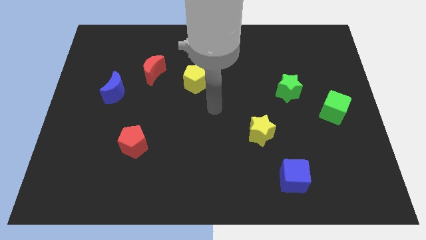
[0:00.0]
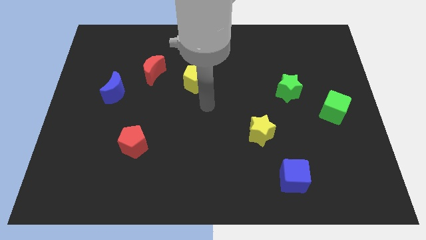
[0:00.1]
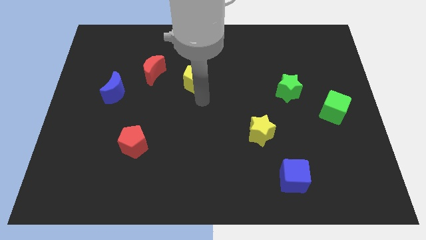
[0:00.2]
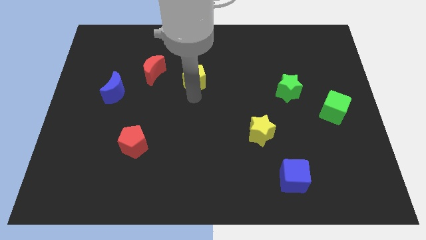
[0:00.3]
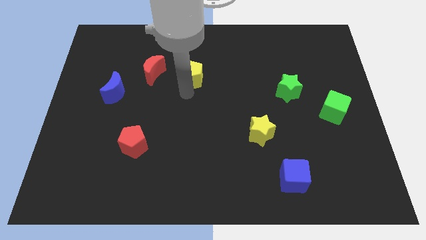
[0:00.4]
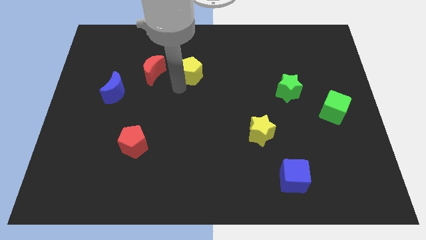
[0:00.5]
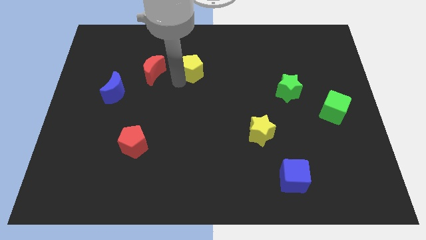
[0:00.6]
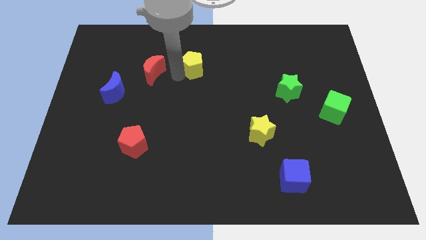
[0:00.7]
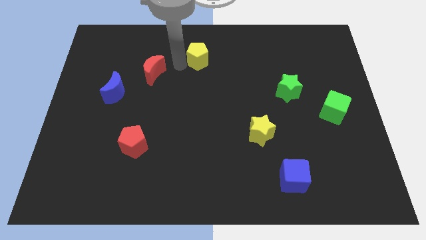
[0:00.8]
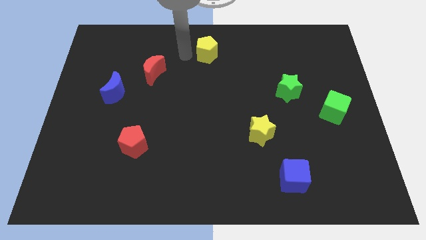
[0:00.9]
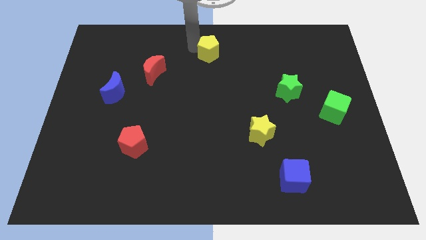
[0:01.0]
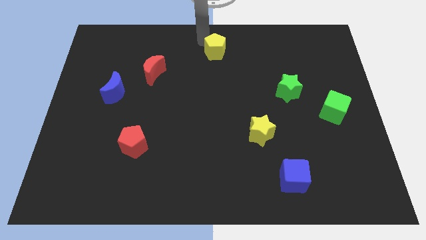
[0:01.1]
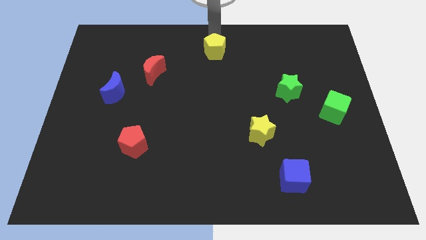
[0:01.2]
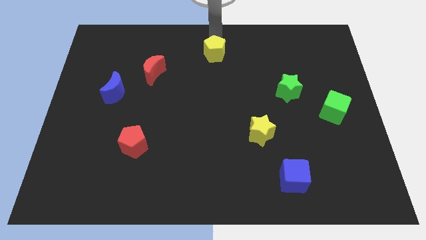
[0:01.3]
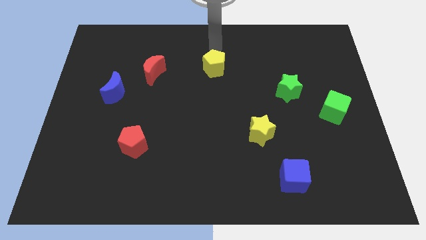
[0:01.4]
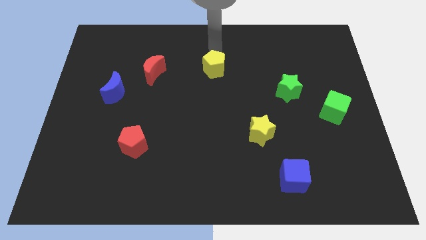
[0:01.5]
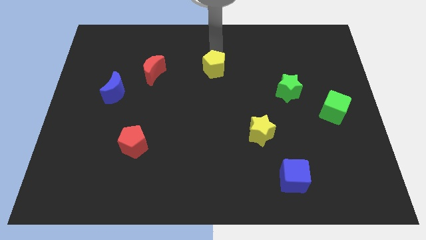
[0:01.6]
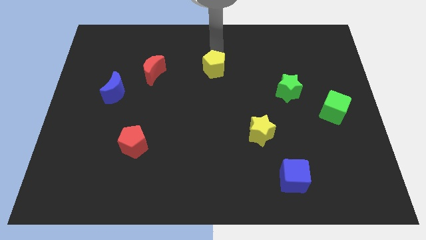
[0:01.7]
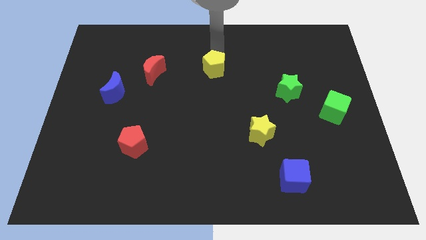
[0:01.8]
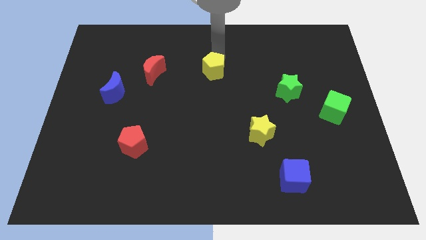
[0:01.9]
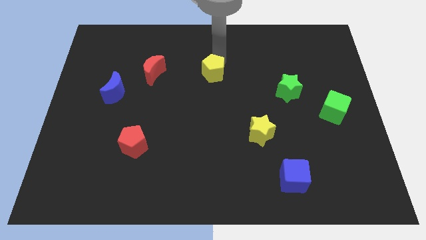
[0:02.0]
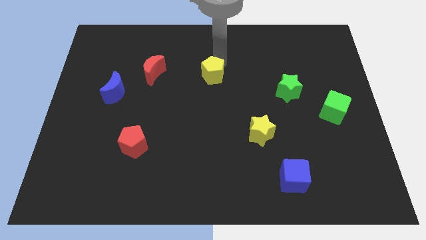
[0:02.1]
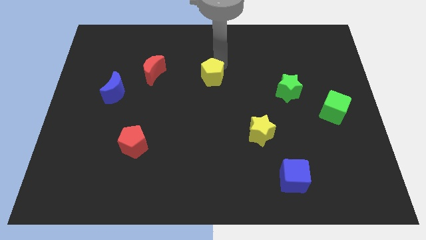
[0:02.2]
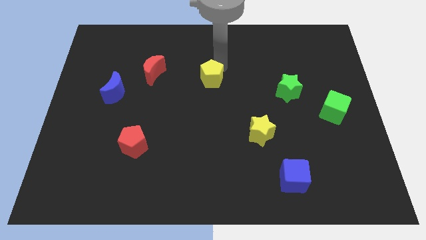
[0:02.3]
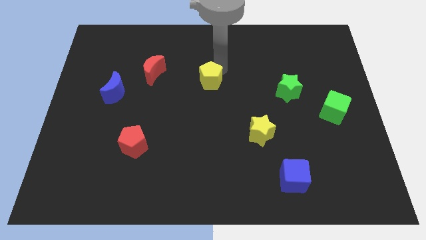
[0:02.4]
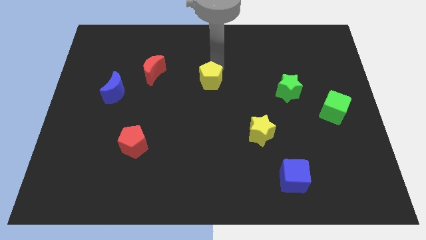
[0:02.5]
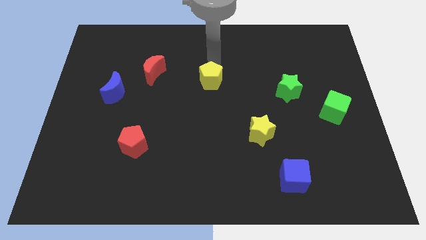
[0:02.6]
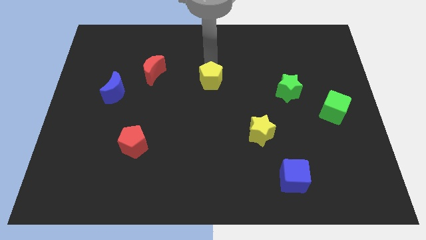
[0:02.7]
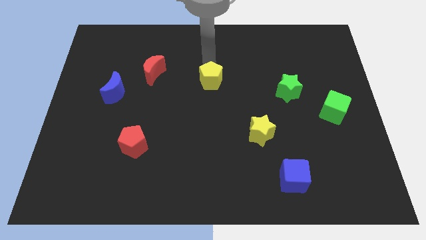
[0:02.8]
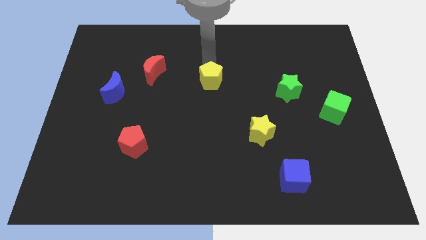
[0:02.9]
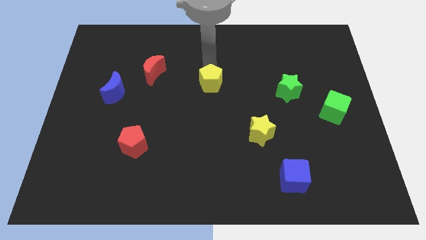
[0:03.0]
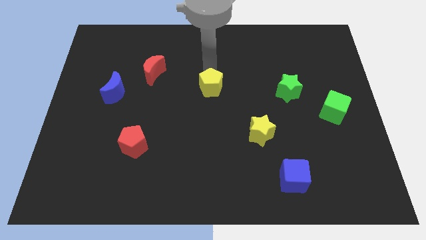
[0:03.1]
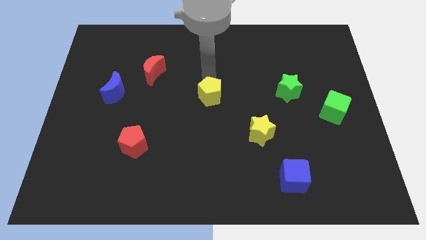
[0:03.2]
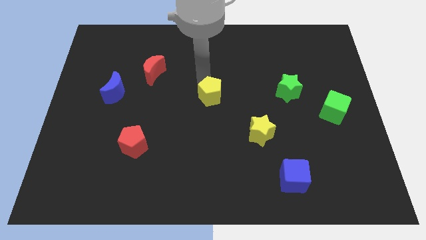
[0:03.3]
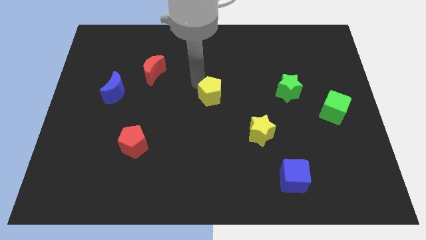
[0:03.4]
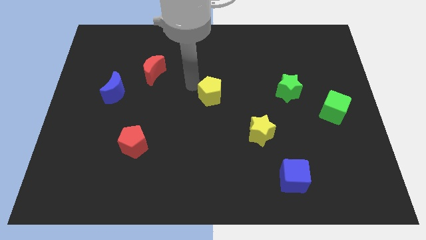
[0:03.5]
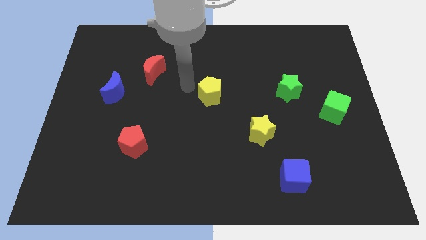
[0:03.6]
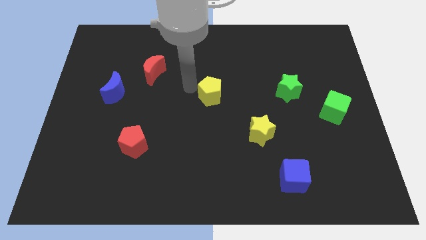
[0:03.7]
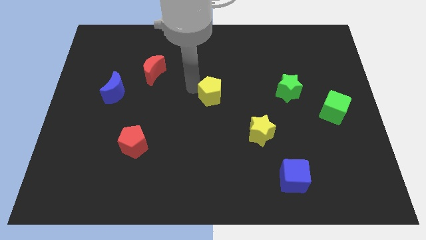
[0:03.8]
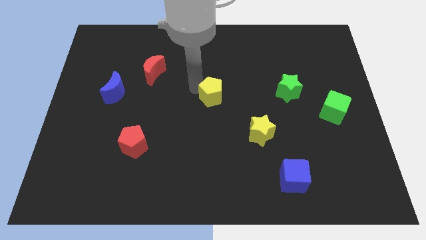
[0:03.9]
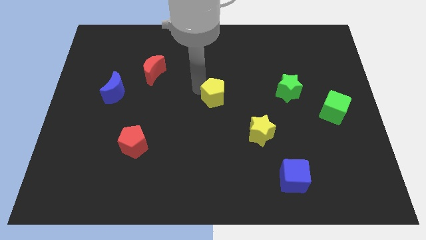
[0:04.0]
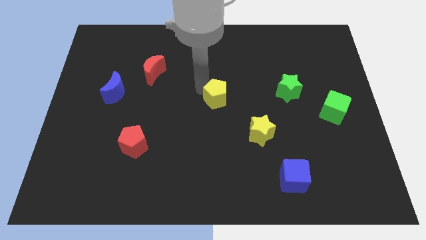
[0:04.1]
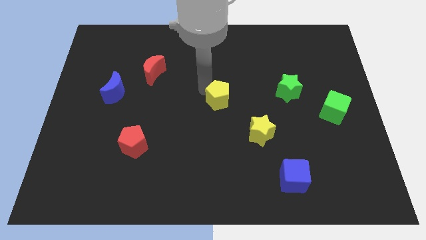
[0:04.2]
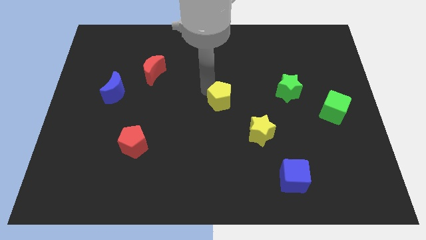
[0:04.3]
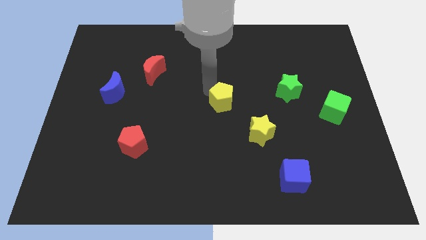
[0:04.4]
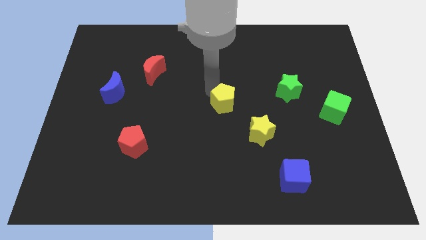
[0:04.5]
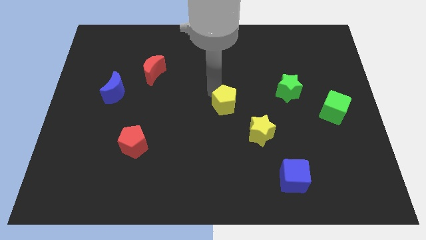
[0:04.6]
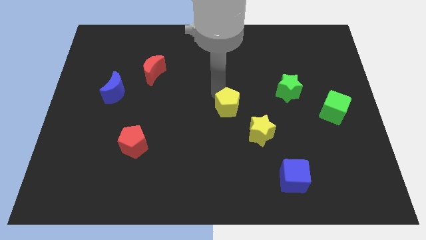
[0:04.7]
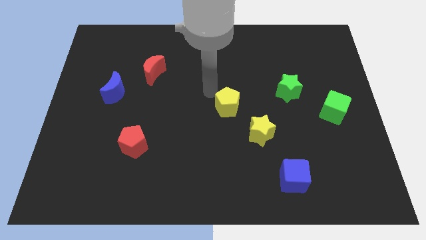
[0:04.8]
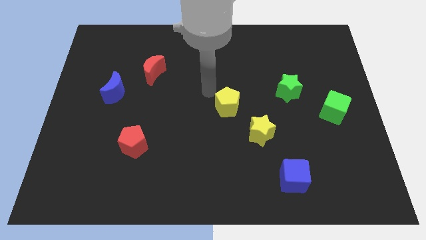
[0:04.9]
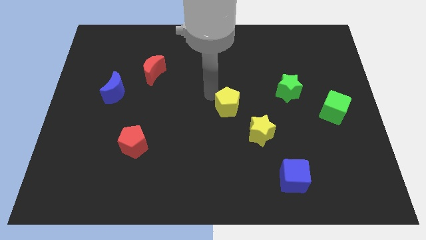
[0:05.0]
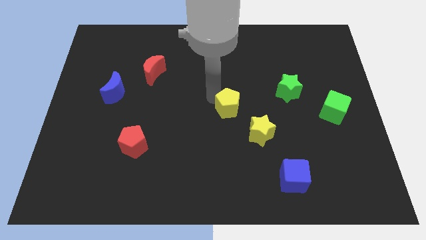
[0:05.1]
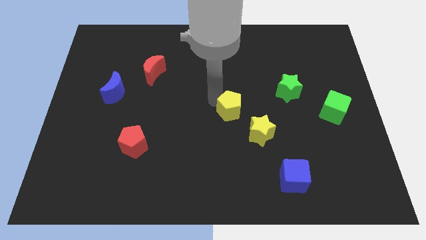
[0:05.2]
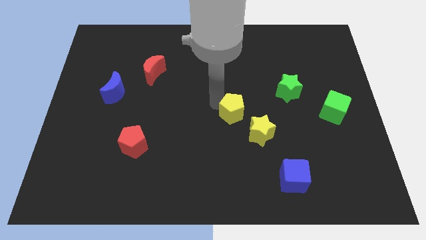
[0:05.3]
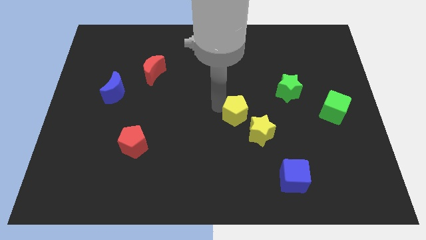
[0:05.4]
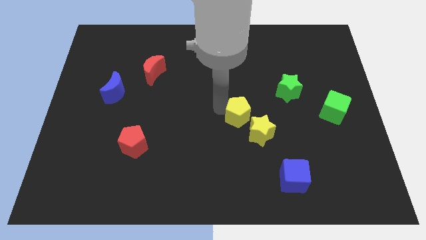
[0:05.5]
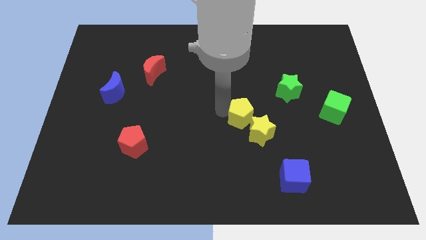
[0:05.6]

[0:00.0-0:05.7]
put the yellow pentagon next to the yellow star

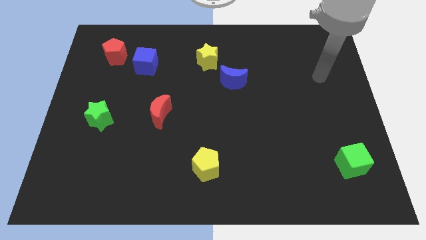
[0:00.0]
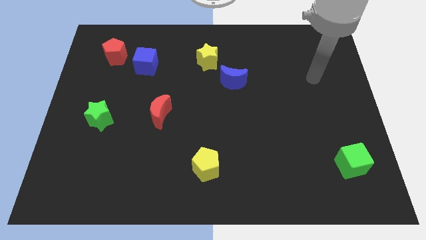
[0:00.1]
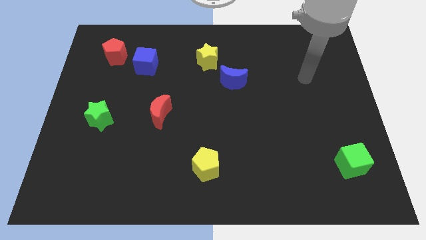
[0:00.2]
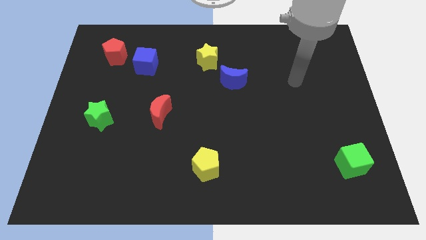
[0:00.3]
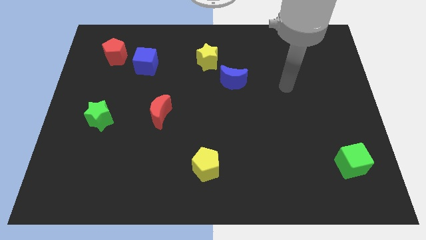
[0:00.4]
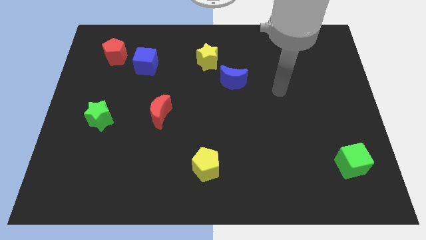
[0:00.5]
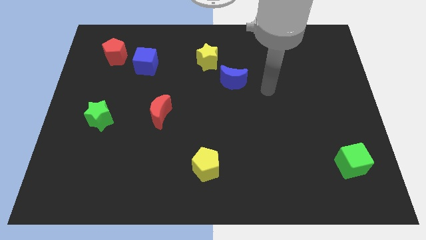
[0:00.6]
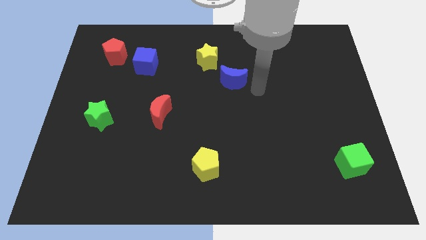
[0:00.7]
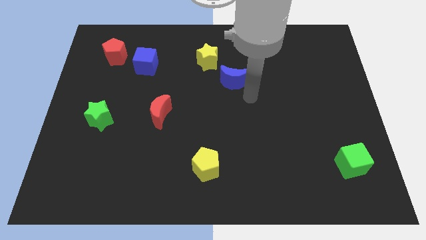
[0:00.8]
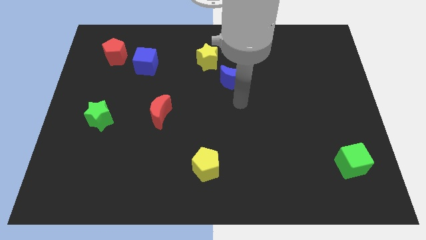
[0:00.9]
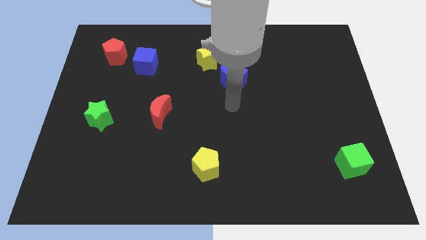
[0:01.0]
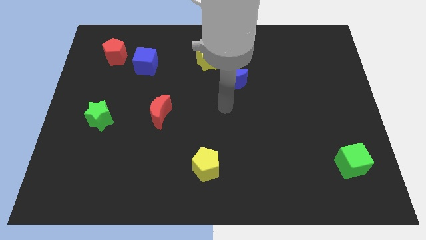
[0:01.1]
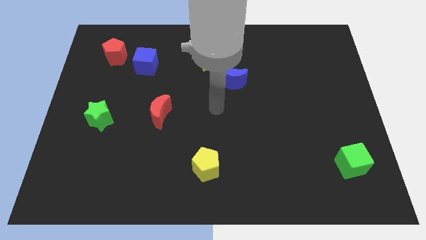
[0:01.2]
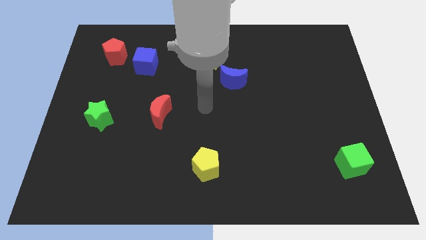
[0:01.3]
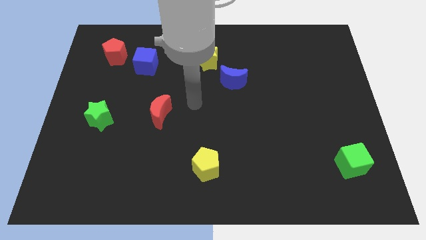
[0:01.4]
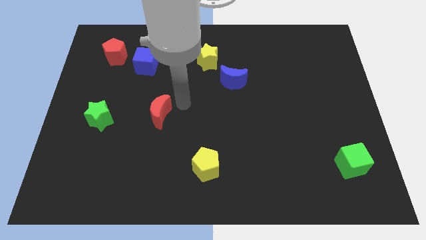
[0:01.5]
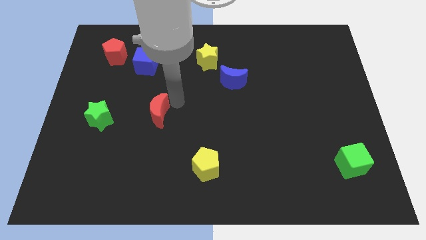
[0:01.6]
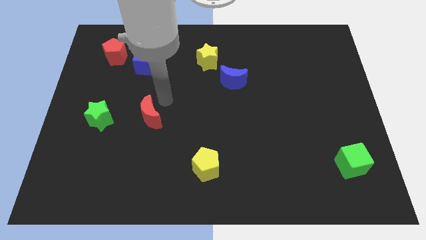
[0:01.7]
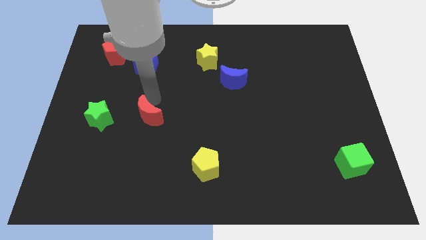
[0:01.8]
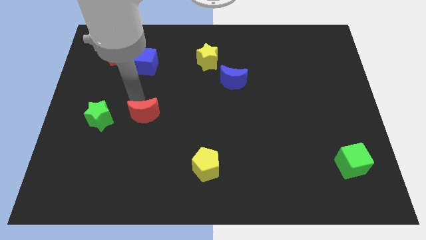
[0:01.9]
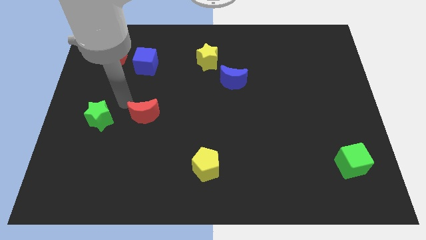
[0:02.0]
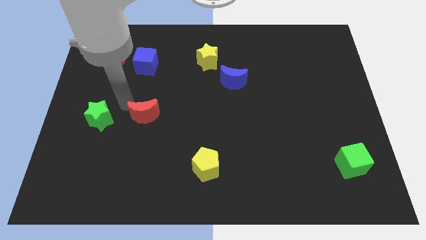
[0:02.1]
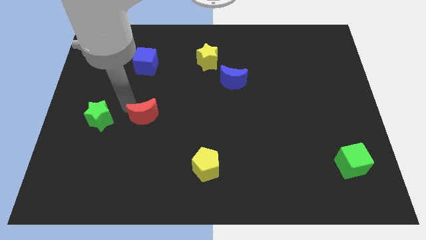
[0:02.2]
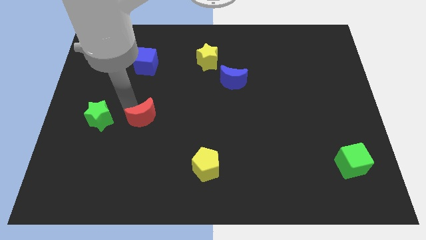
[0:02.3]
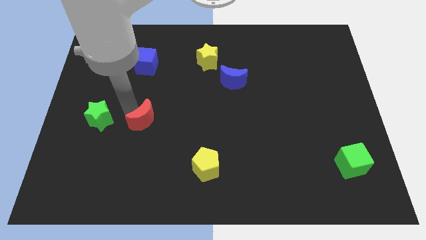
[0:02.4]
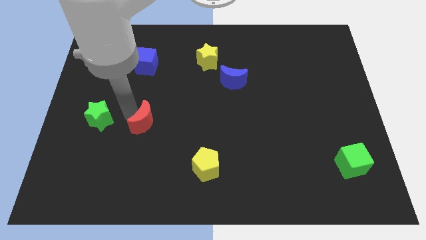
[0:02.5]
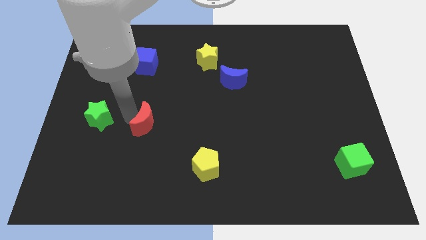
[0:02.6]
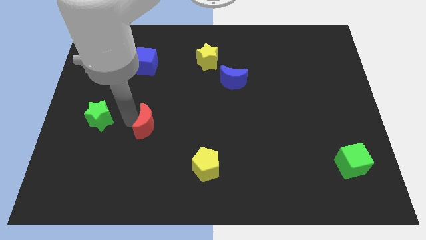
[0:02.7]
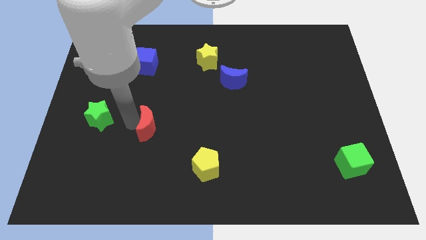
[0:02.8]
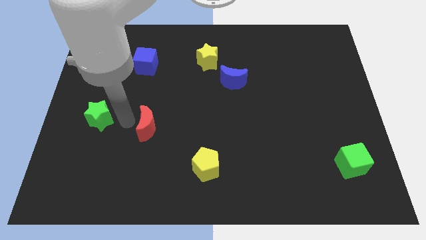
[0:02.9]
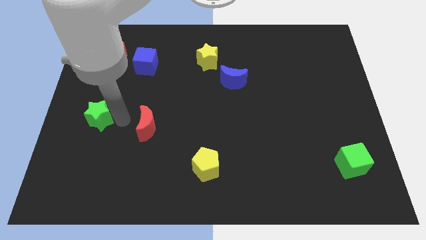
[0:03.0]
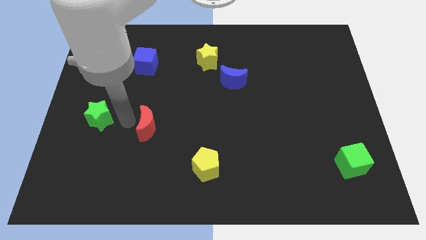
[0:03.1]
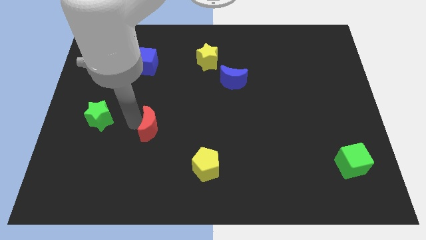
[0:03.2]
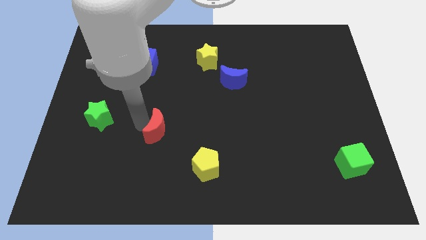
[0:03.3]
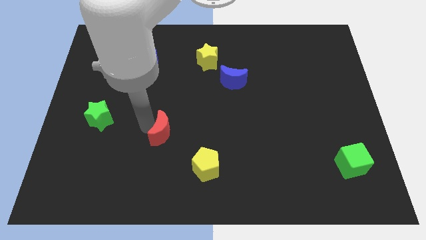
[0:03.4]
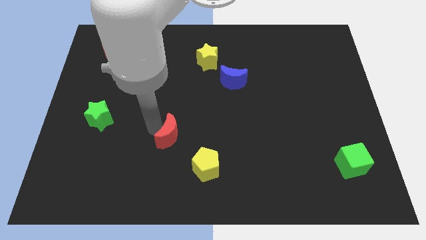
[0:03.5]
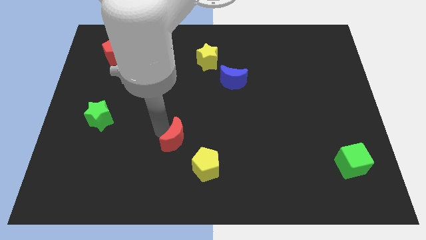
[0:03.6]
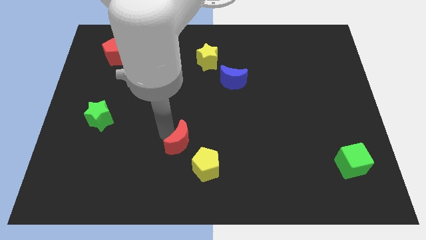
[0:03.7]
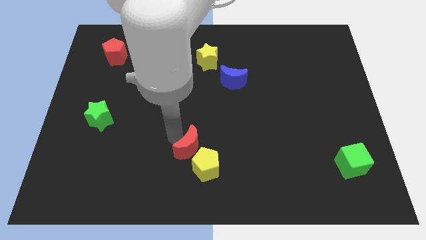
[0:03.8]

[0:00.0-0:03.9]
push the red moon towards the yellow pentagon
